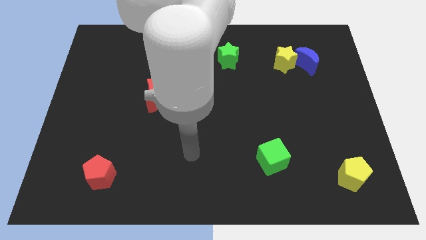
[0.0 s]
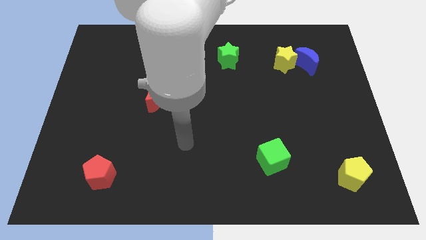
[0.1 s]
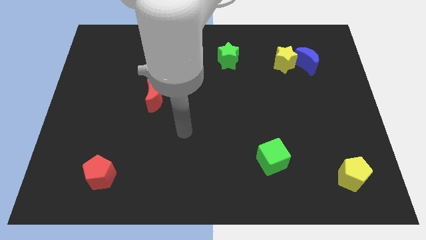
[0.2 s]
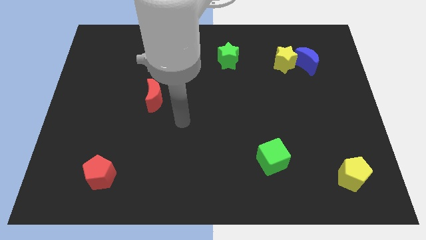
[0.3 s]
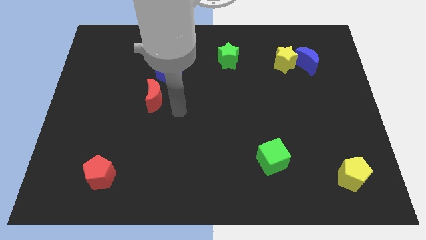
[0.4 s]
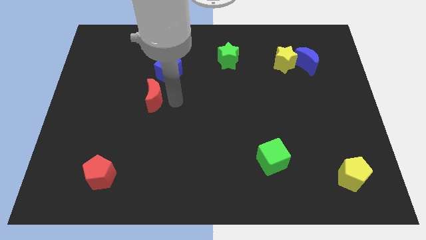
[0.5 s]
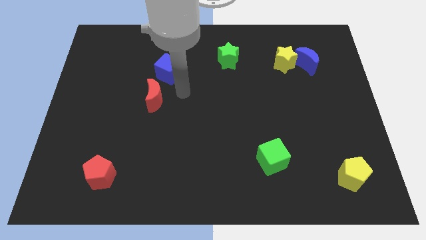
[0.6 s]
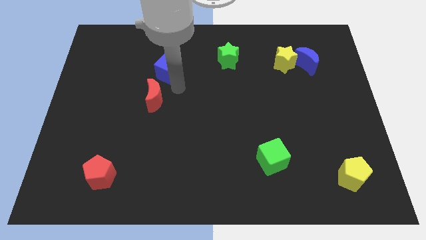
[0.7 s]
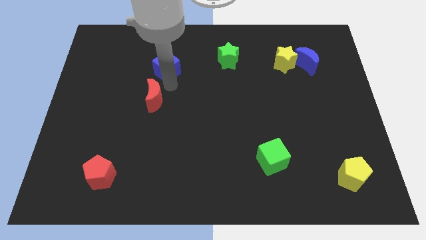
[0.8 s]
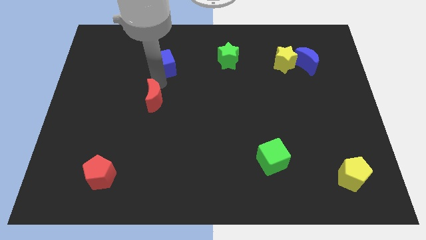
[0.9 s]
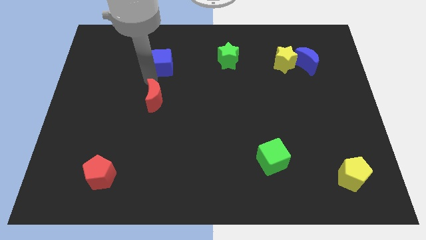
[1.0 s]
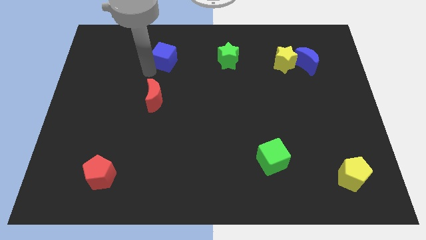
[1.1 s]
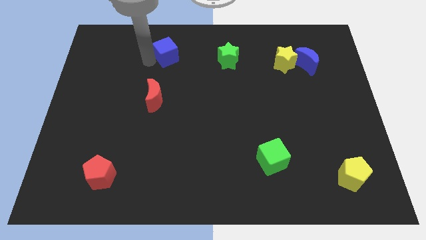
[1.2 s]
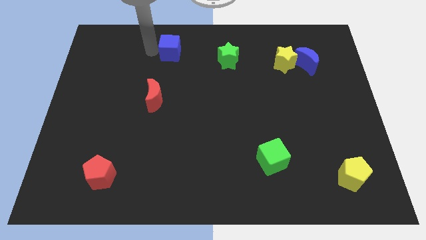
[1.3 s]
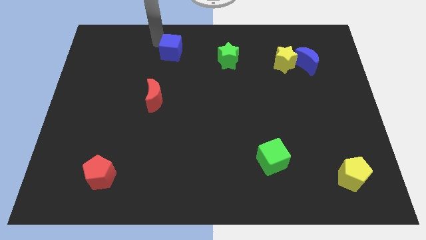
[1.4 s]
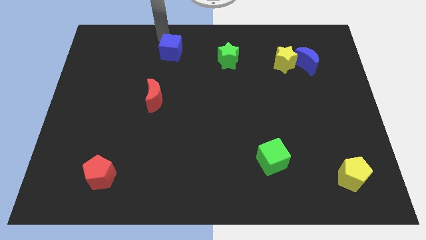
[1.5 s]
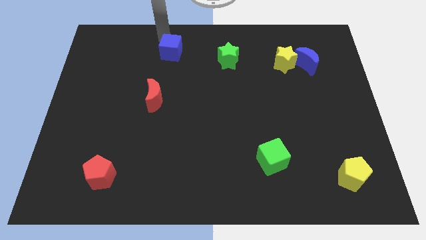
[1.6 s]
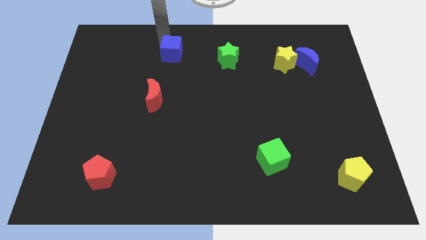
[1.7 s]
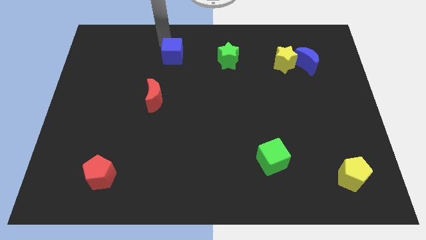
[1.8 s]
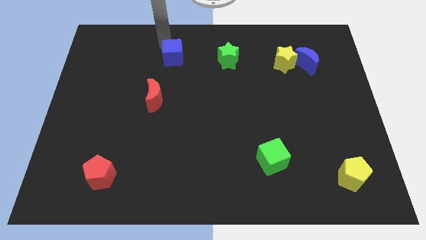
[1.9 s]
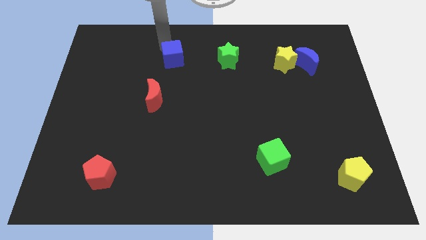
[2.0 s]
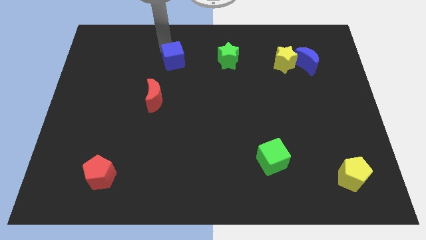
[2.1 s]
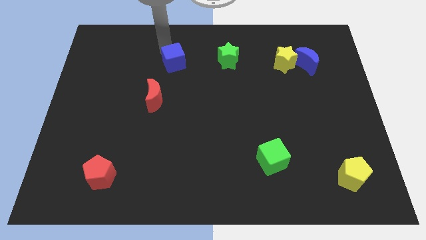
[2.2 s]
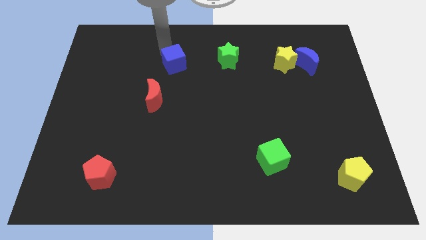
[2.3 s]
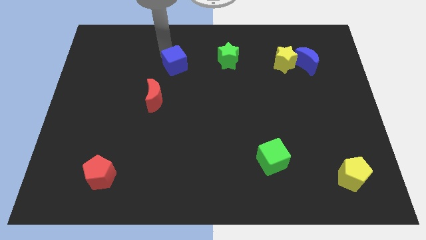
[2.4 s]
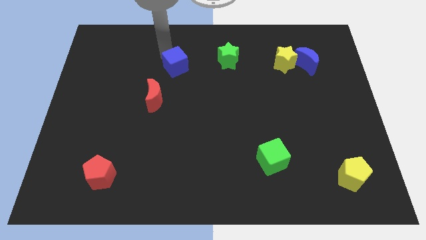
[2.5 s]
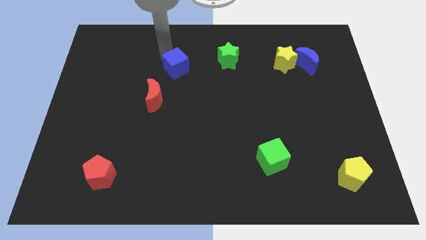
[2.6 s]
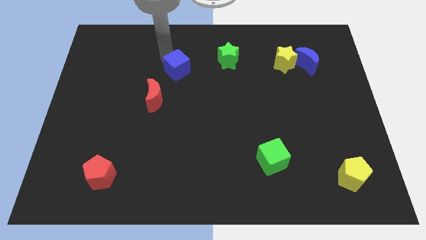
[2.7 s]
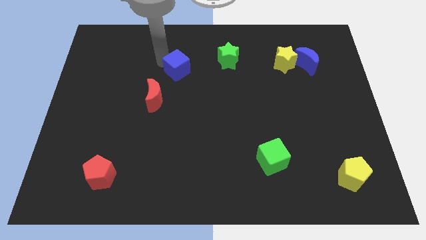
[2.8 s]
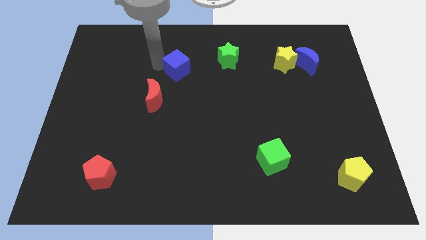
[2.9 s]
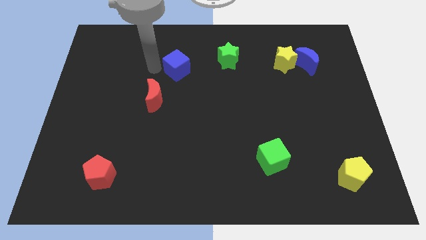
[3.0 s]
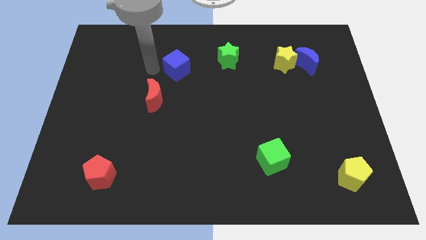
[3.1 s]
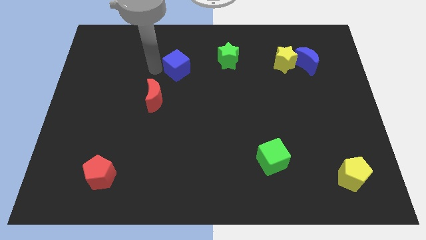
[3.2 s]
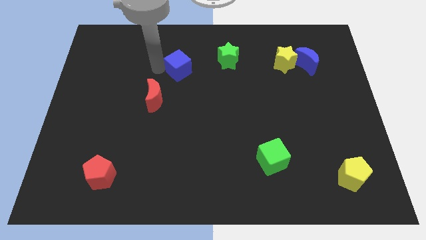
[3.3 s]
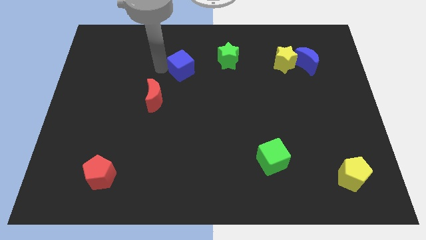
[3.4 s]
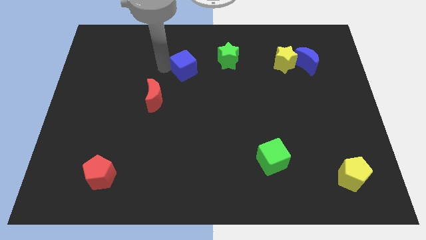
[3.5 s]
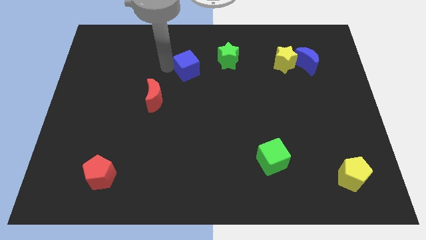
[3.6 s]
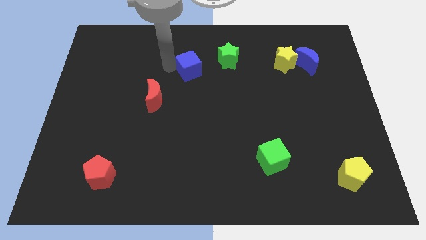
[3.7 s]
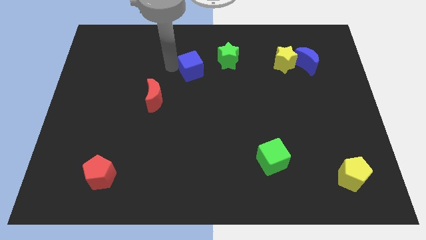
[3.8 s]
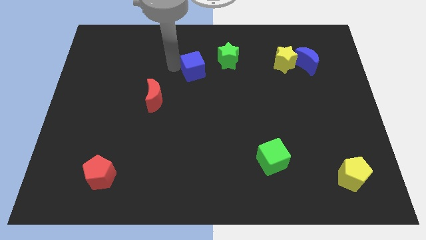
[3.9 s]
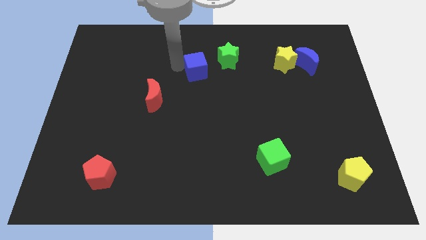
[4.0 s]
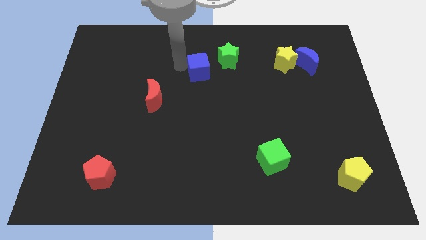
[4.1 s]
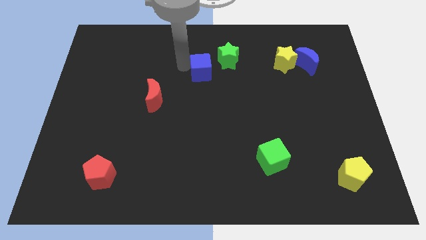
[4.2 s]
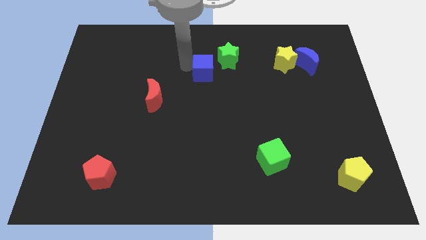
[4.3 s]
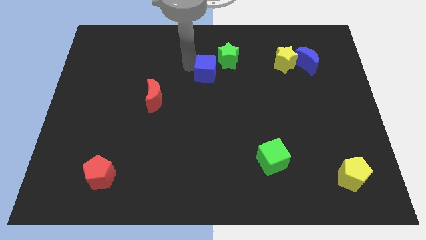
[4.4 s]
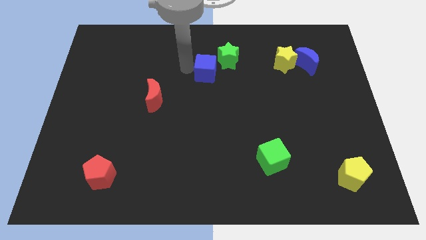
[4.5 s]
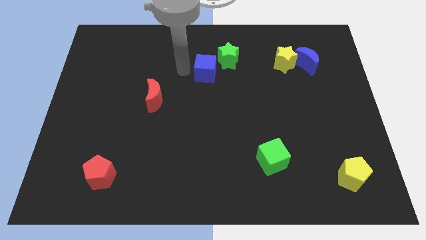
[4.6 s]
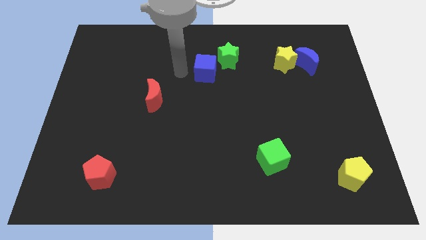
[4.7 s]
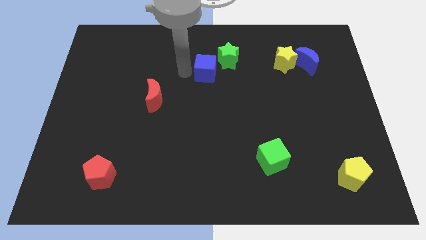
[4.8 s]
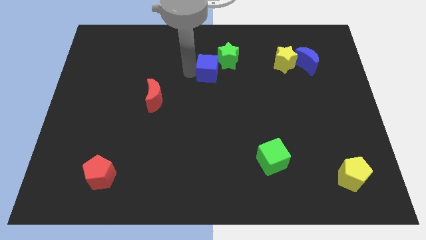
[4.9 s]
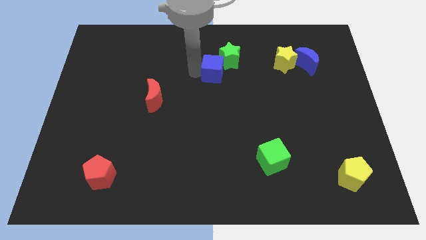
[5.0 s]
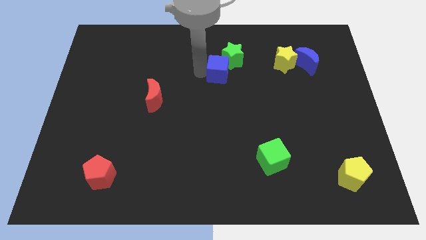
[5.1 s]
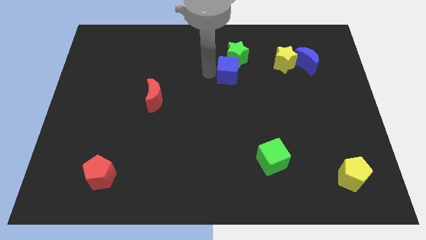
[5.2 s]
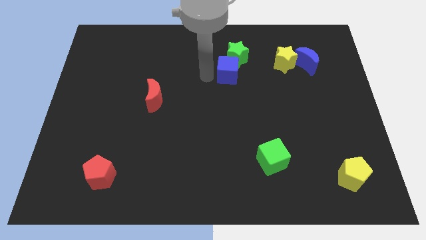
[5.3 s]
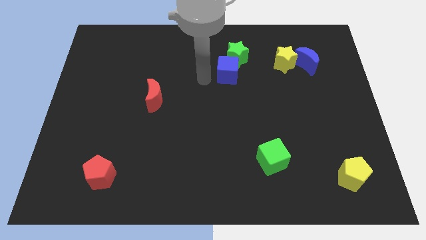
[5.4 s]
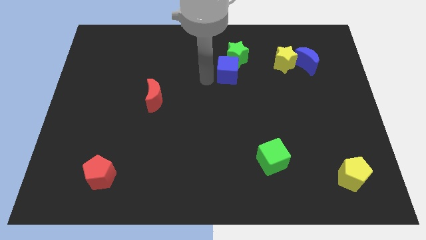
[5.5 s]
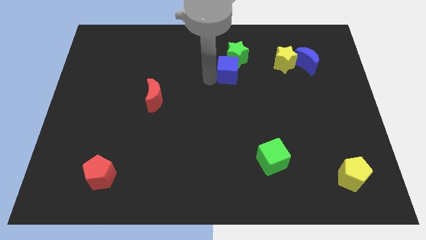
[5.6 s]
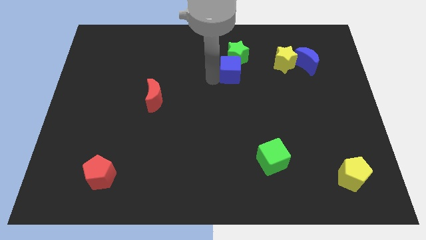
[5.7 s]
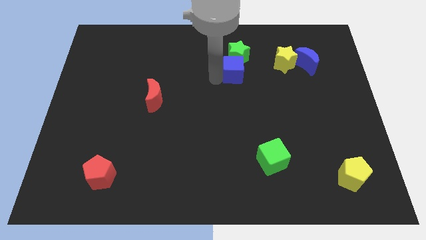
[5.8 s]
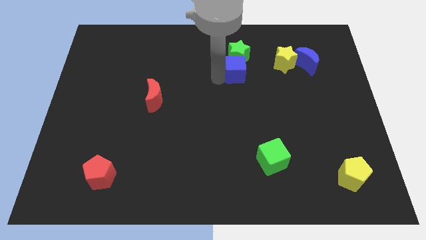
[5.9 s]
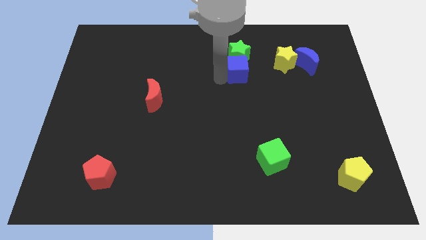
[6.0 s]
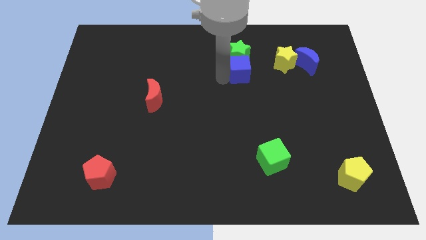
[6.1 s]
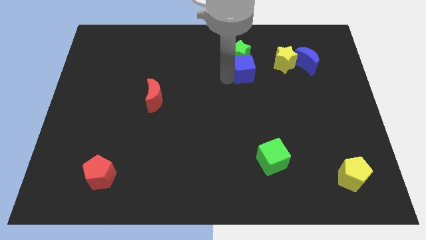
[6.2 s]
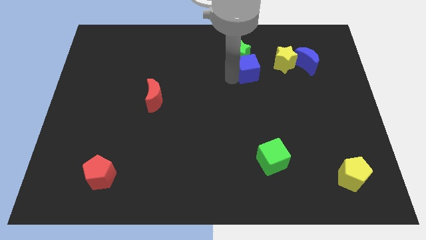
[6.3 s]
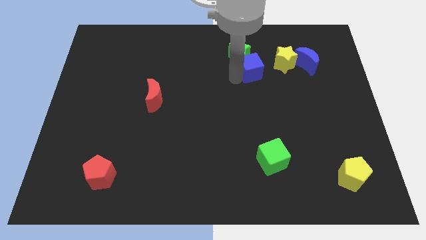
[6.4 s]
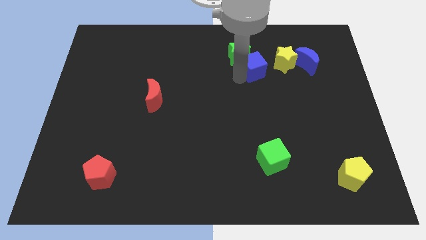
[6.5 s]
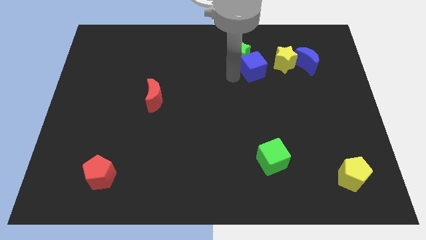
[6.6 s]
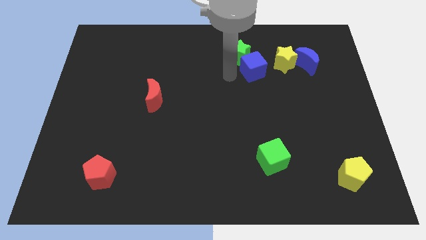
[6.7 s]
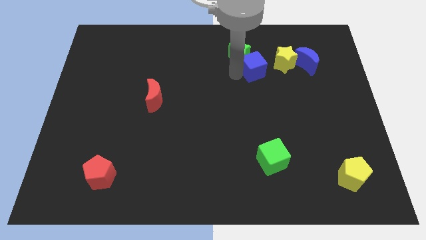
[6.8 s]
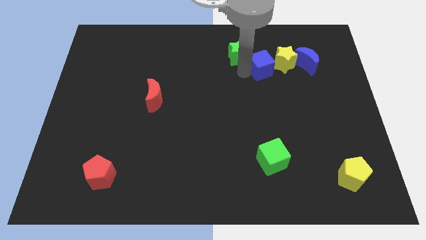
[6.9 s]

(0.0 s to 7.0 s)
push the blue cube close to the yellow star

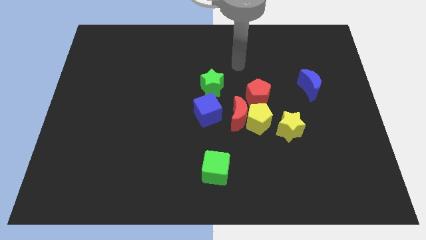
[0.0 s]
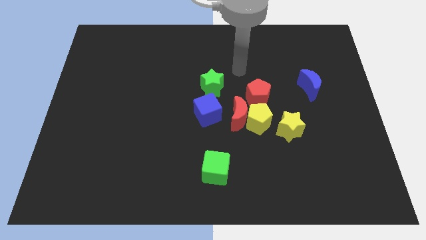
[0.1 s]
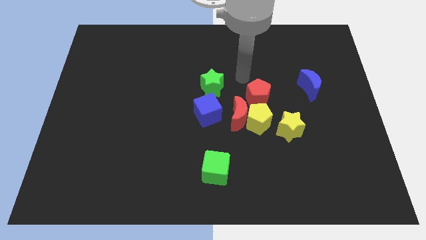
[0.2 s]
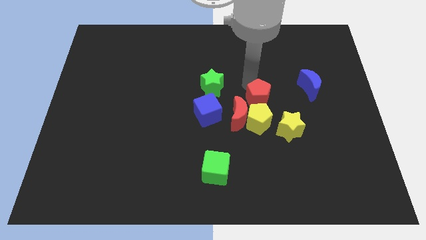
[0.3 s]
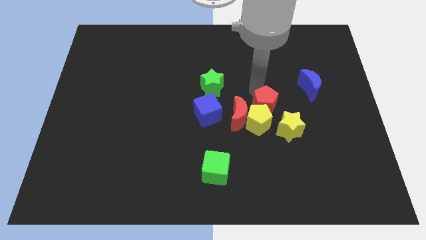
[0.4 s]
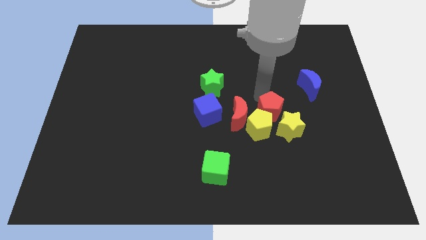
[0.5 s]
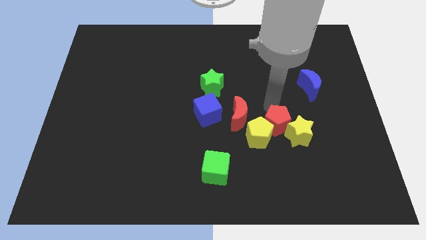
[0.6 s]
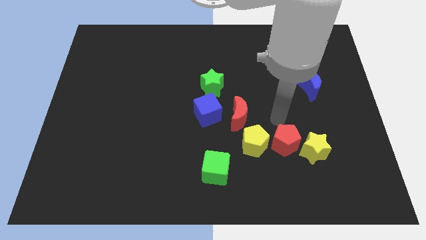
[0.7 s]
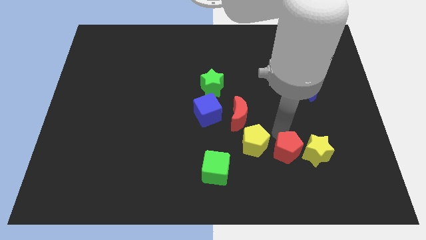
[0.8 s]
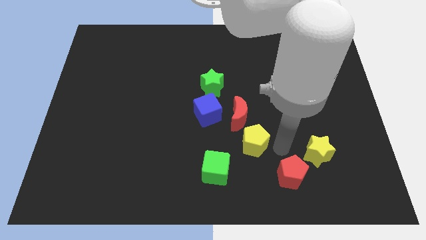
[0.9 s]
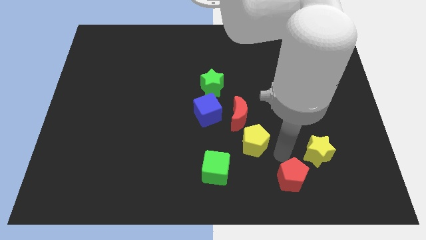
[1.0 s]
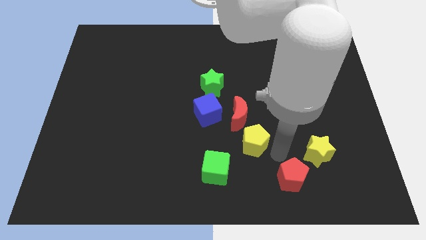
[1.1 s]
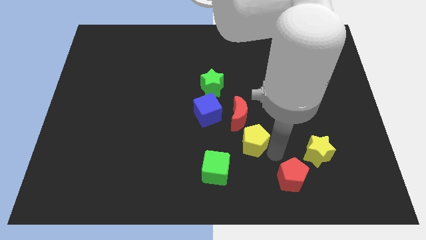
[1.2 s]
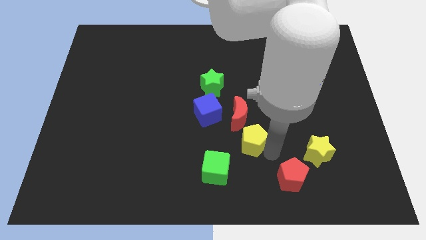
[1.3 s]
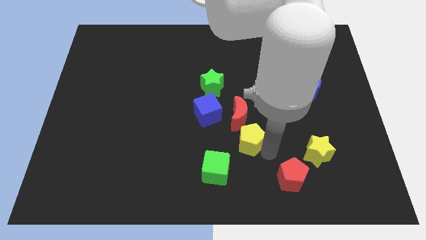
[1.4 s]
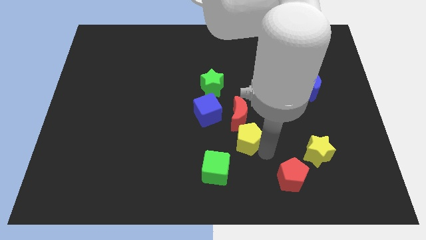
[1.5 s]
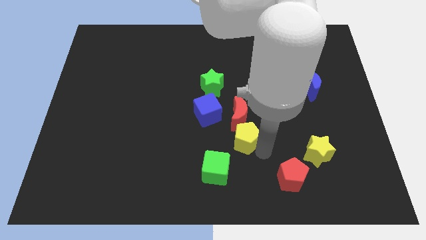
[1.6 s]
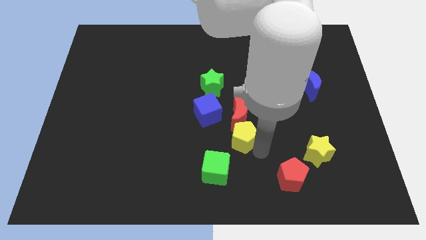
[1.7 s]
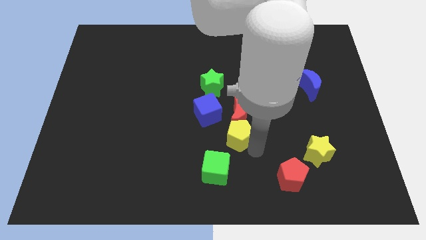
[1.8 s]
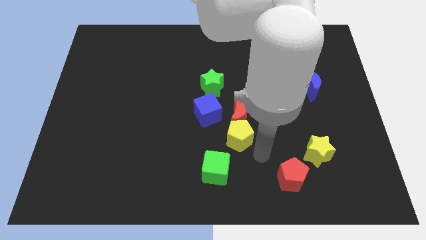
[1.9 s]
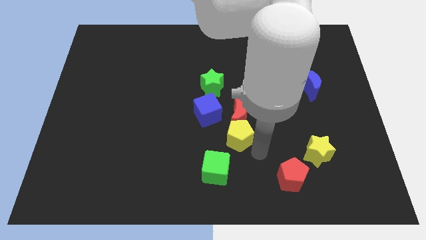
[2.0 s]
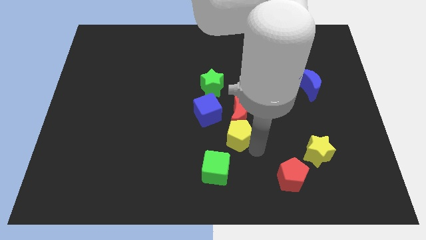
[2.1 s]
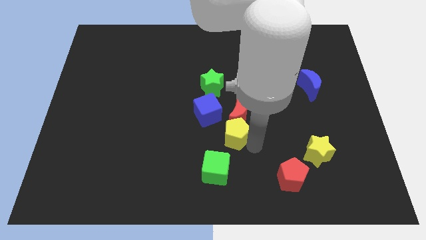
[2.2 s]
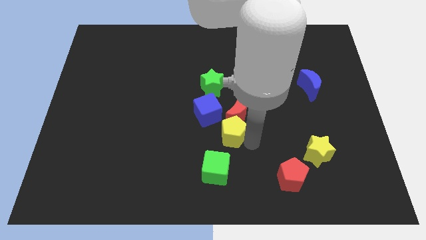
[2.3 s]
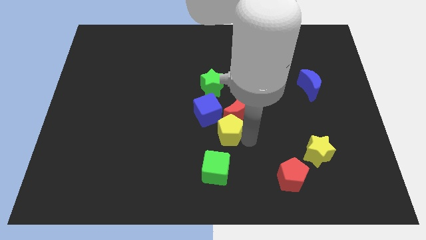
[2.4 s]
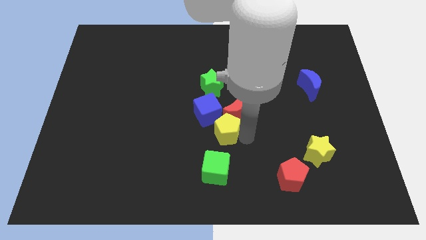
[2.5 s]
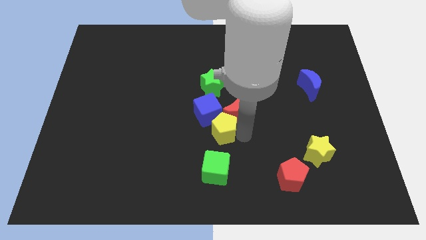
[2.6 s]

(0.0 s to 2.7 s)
slide the yellow pentagon towards the blue cube
